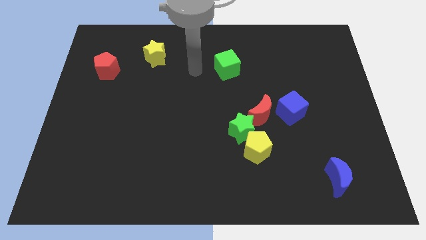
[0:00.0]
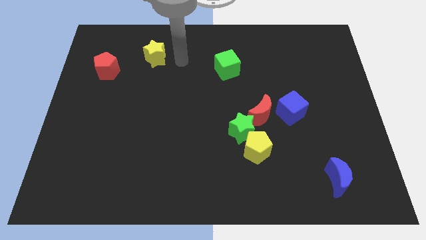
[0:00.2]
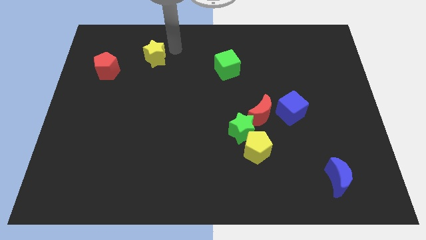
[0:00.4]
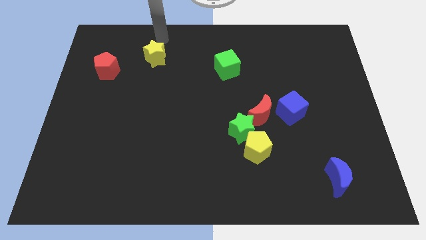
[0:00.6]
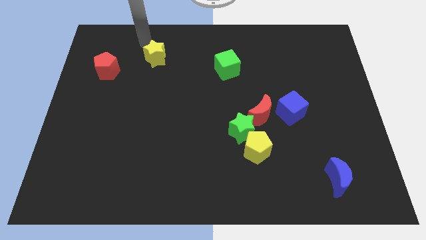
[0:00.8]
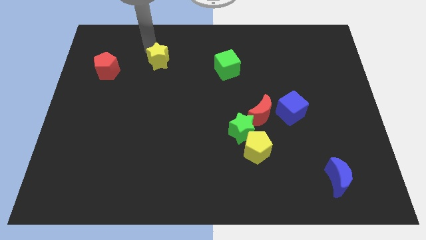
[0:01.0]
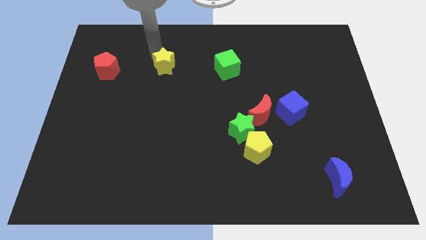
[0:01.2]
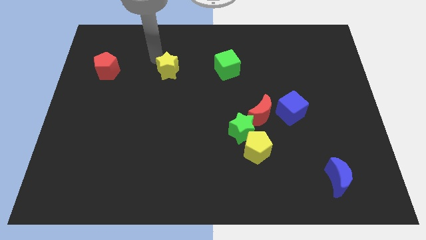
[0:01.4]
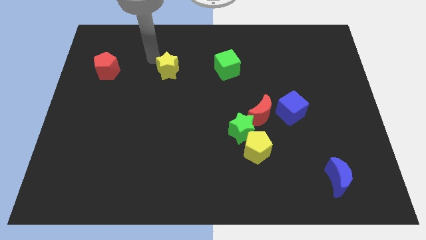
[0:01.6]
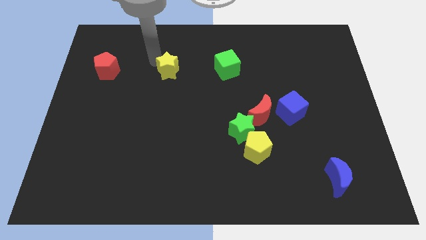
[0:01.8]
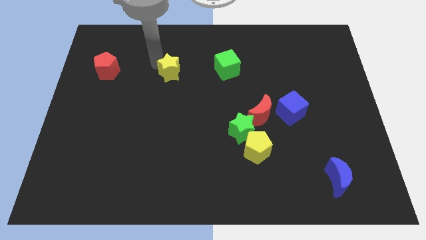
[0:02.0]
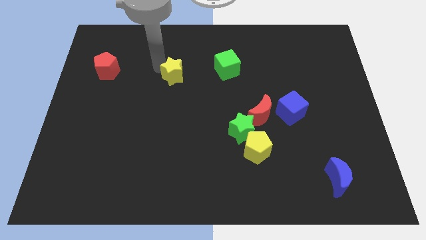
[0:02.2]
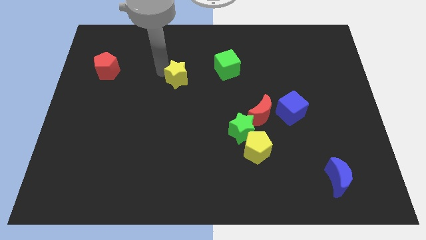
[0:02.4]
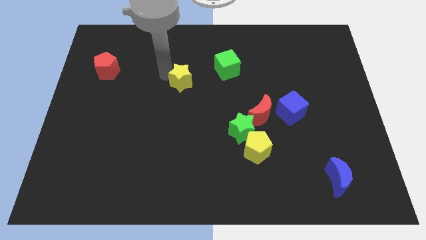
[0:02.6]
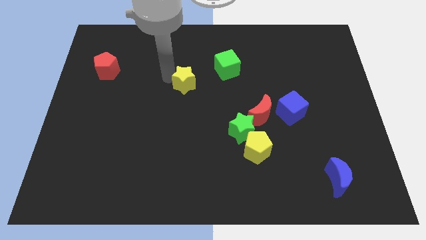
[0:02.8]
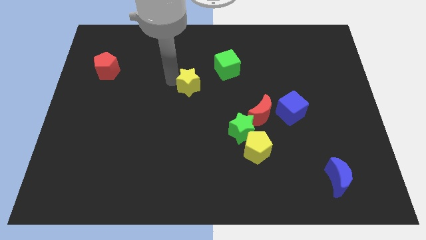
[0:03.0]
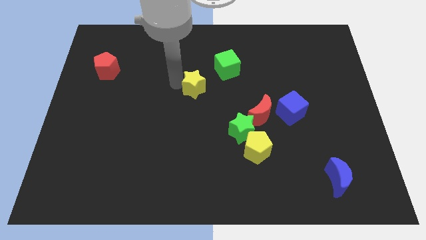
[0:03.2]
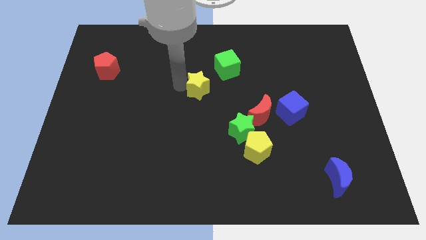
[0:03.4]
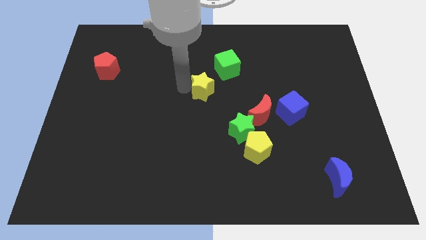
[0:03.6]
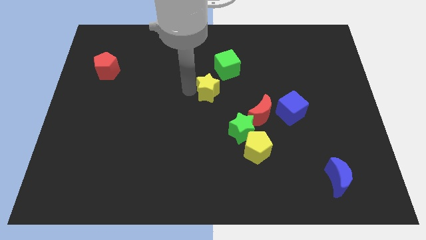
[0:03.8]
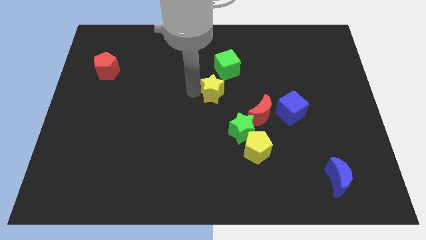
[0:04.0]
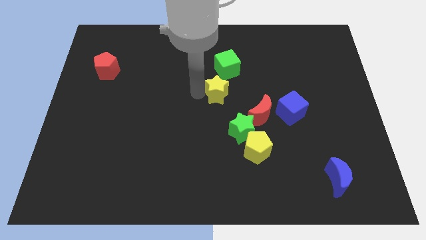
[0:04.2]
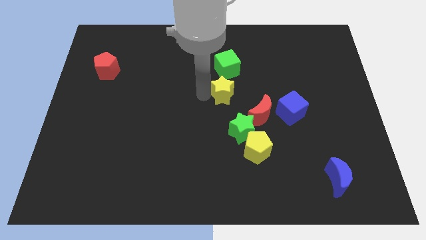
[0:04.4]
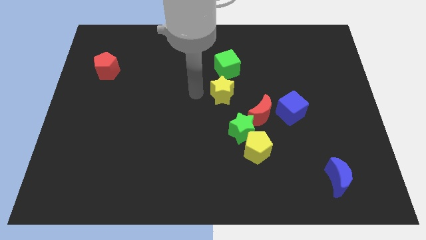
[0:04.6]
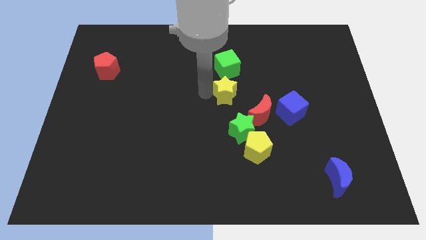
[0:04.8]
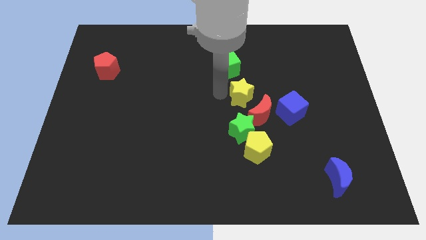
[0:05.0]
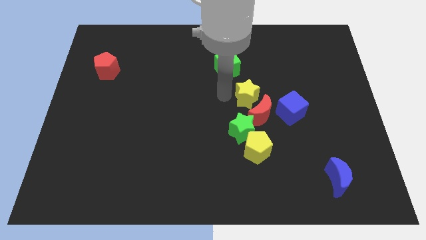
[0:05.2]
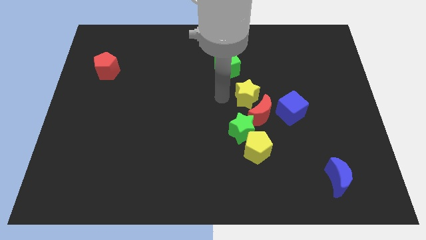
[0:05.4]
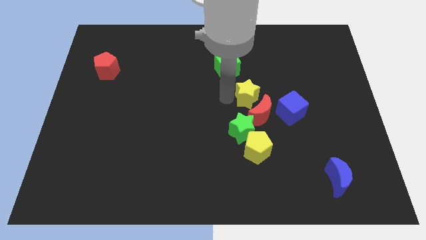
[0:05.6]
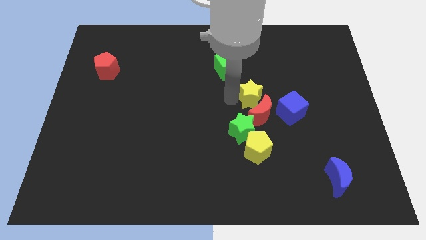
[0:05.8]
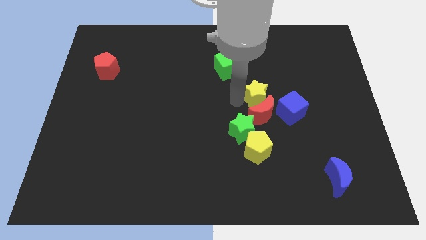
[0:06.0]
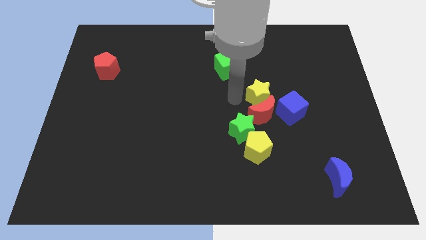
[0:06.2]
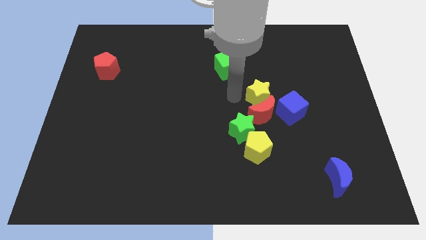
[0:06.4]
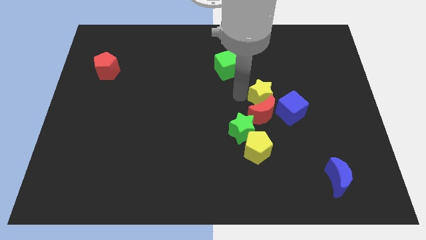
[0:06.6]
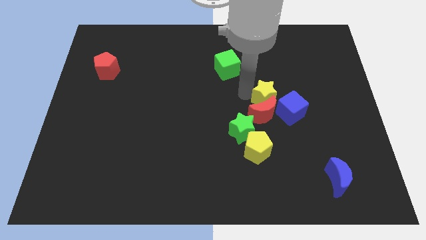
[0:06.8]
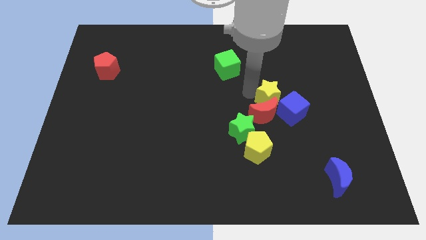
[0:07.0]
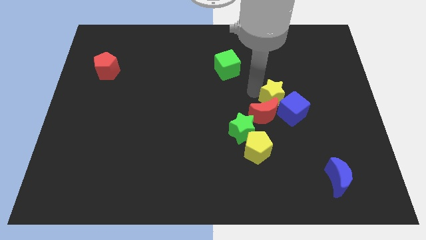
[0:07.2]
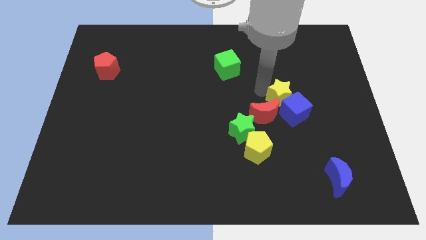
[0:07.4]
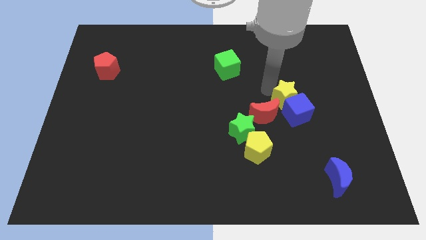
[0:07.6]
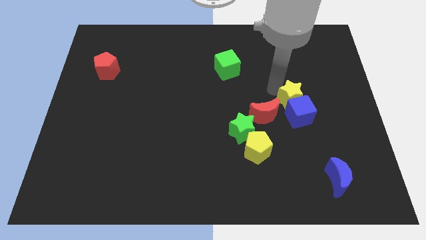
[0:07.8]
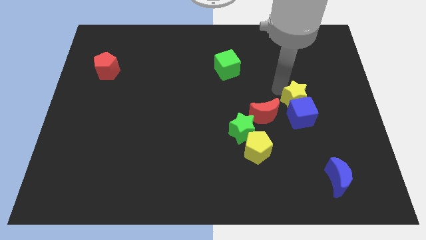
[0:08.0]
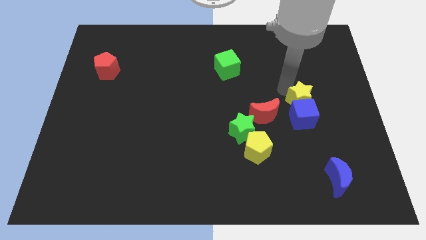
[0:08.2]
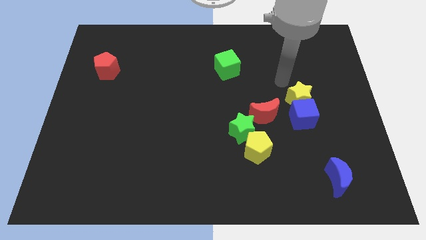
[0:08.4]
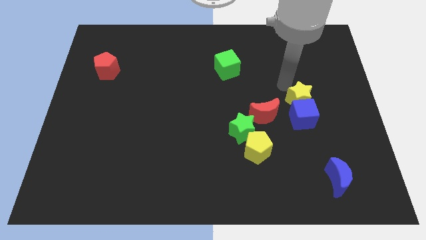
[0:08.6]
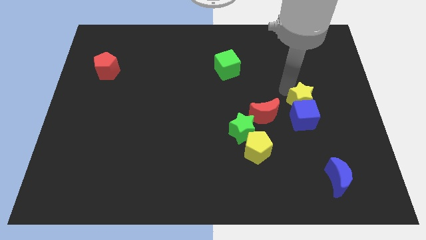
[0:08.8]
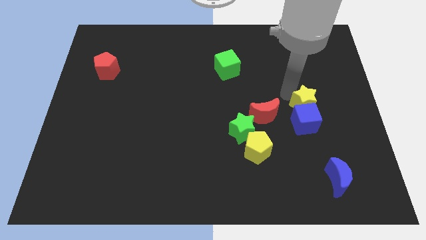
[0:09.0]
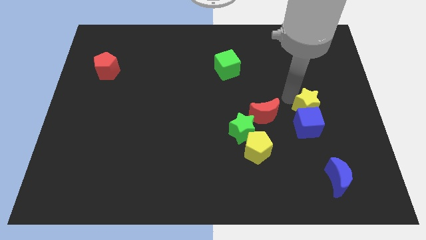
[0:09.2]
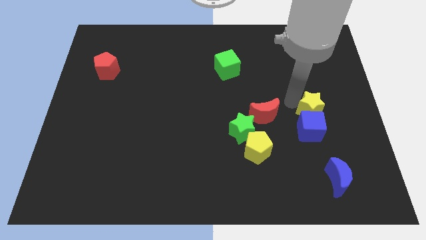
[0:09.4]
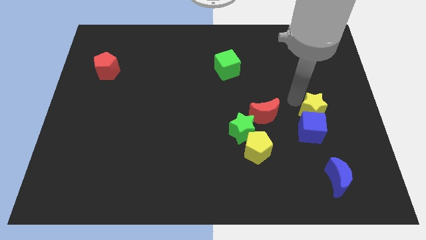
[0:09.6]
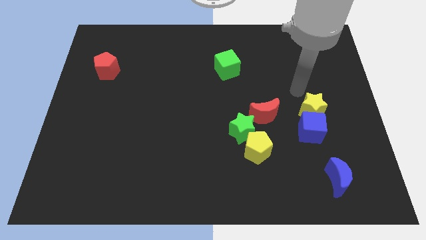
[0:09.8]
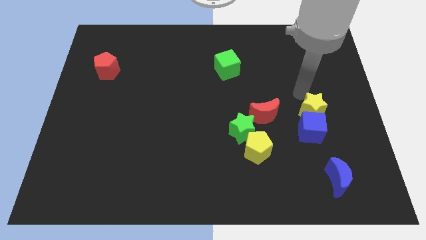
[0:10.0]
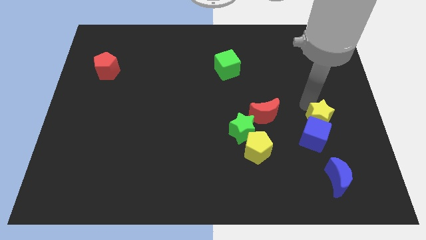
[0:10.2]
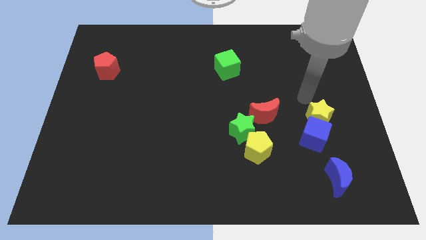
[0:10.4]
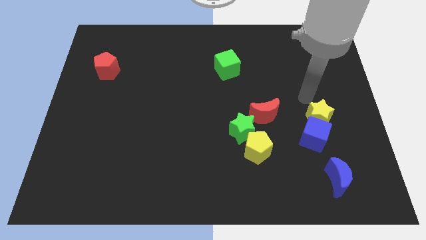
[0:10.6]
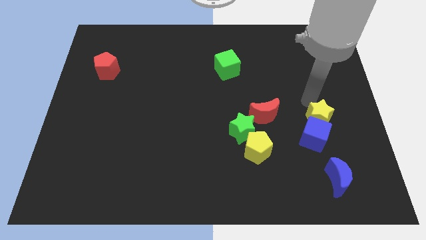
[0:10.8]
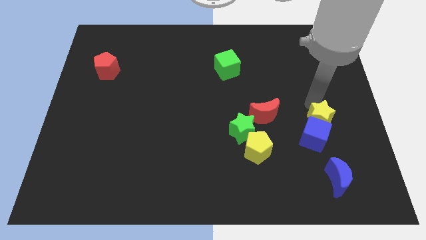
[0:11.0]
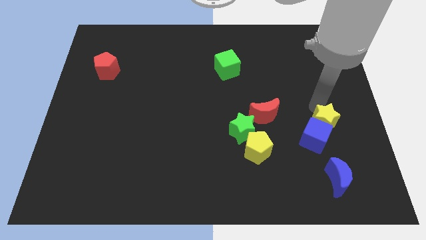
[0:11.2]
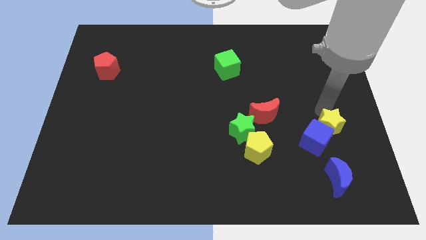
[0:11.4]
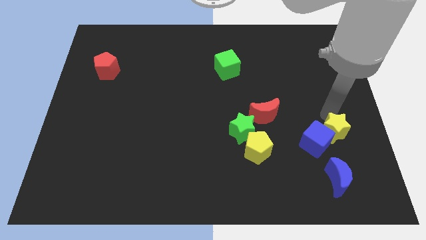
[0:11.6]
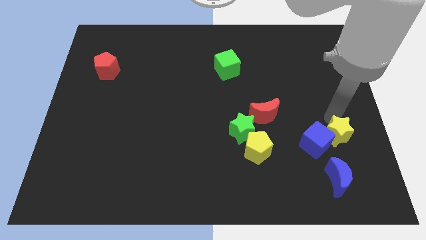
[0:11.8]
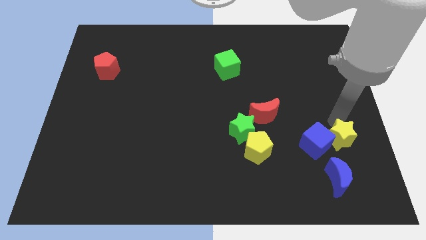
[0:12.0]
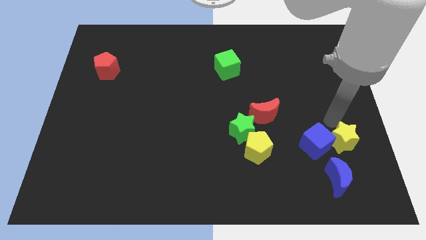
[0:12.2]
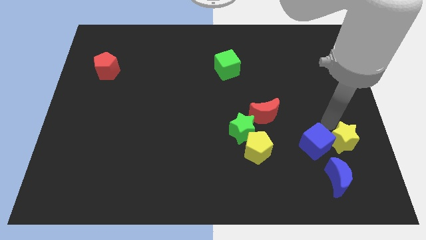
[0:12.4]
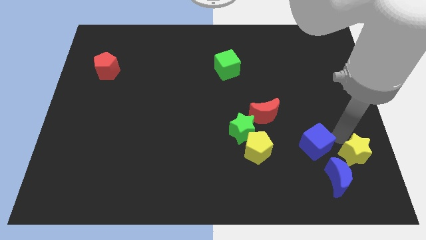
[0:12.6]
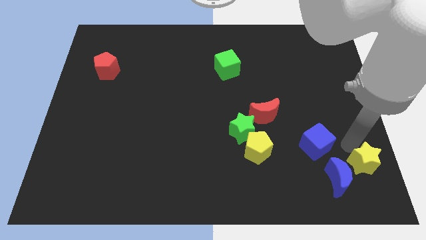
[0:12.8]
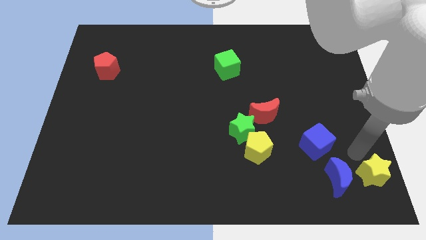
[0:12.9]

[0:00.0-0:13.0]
move the yellow star to the bottom right of the board
